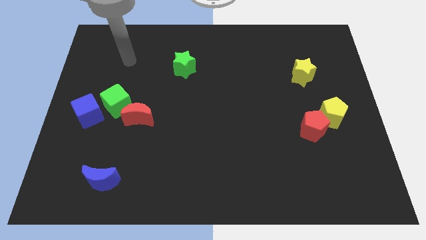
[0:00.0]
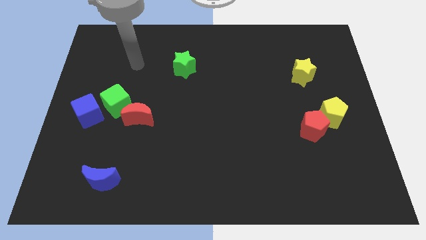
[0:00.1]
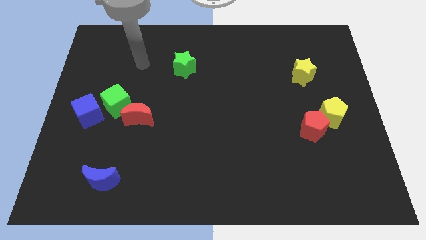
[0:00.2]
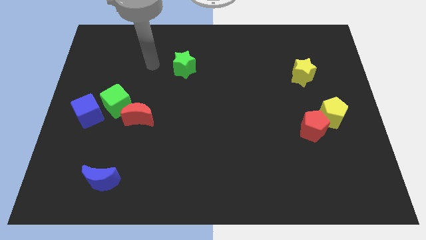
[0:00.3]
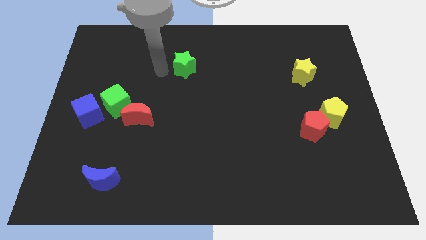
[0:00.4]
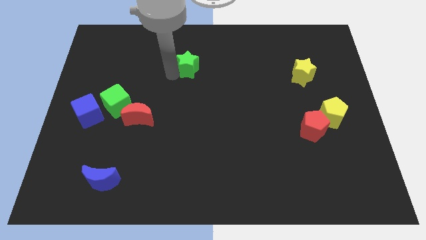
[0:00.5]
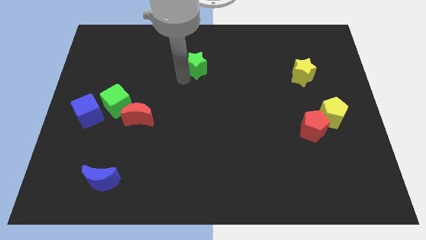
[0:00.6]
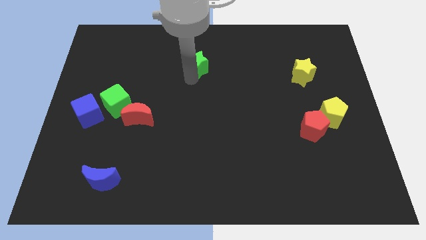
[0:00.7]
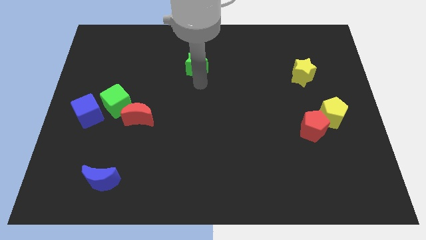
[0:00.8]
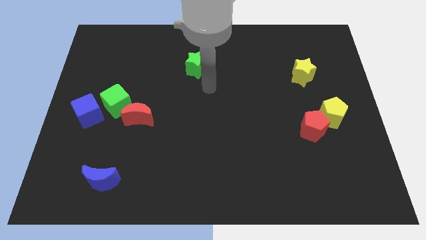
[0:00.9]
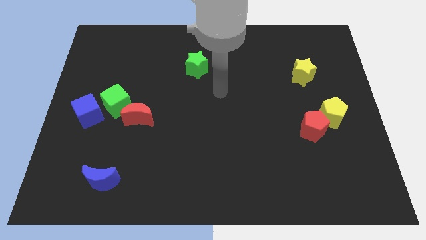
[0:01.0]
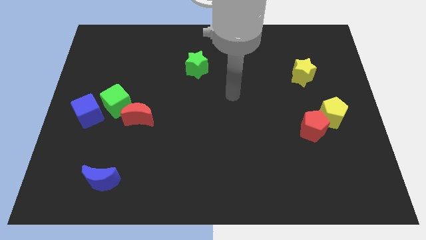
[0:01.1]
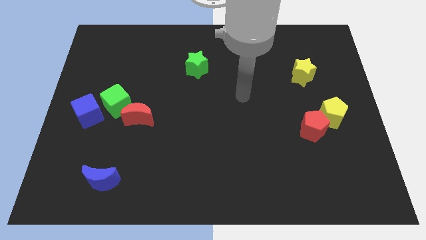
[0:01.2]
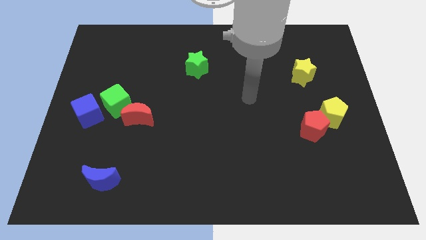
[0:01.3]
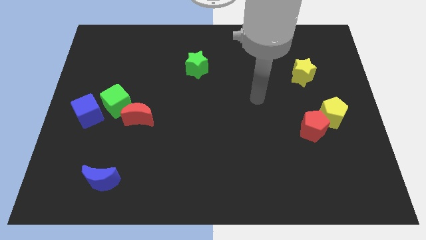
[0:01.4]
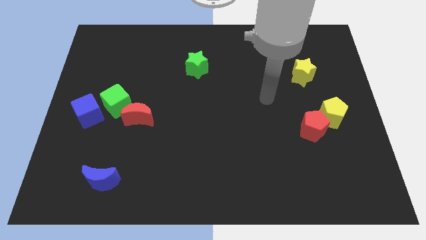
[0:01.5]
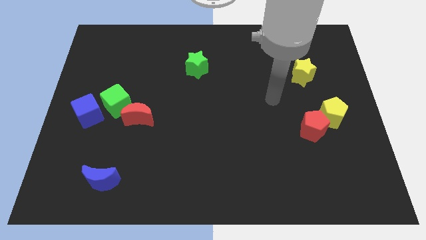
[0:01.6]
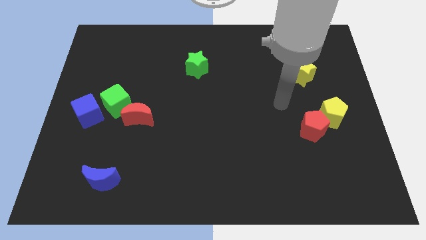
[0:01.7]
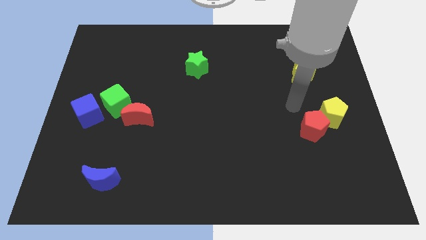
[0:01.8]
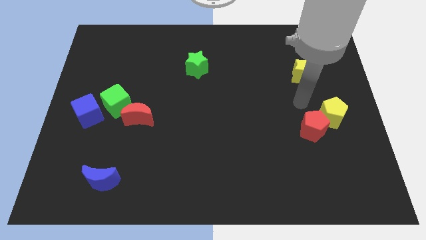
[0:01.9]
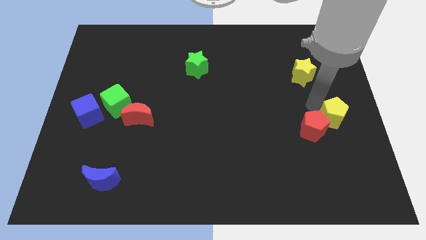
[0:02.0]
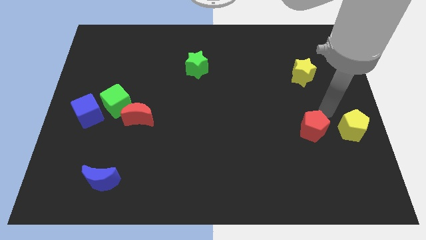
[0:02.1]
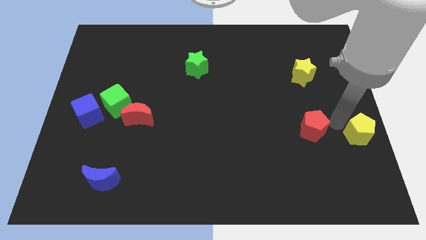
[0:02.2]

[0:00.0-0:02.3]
pull the red pentagon apart from the yellow pentagon

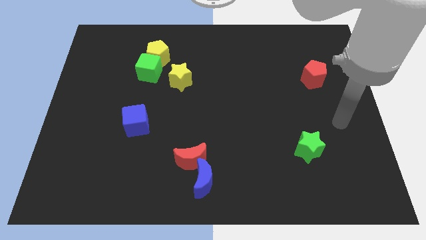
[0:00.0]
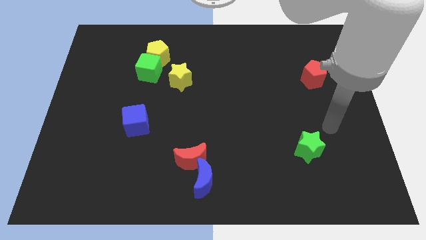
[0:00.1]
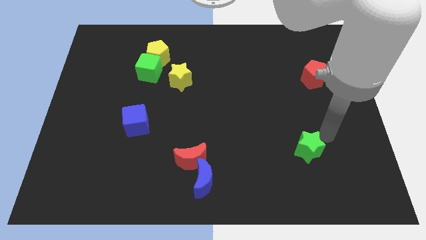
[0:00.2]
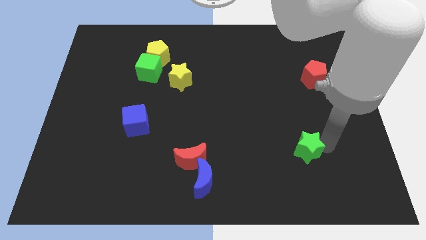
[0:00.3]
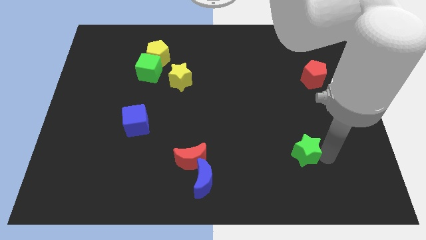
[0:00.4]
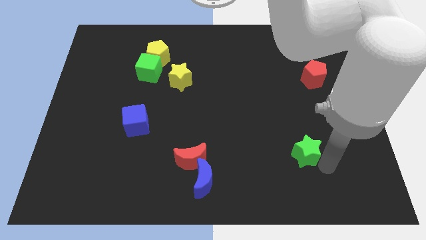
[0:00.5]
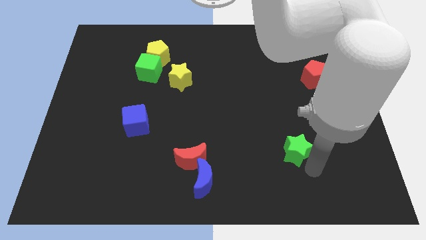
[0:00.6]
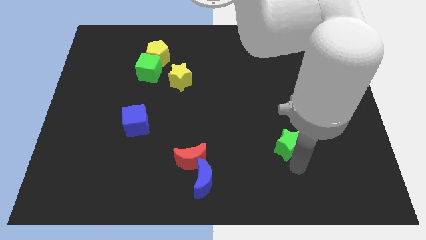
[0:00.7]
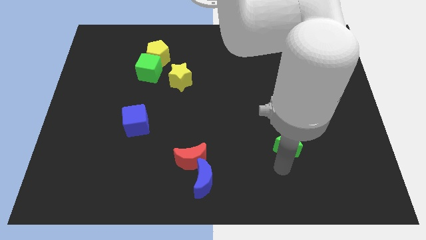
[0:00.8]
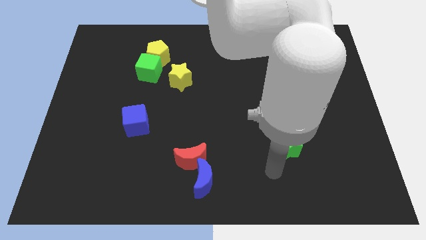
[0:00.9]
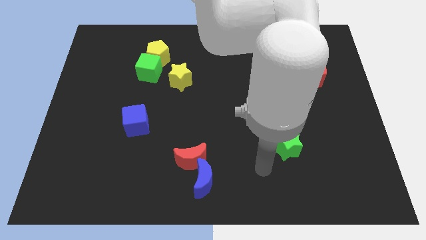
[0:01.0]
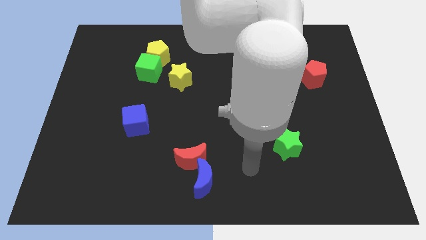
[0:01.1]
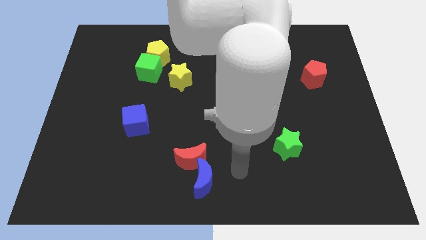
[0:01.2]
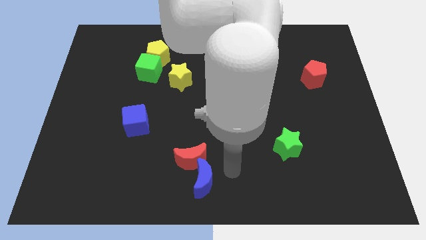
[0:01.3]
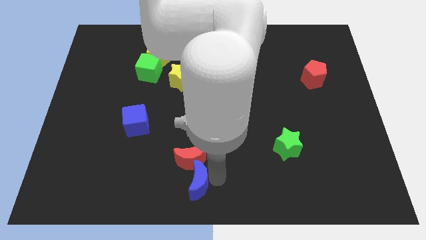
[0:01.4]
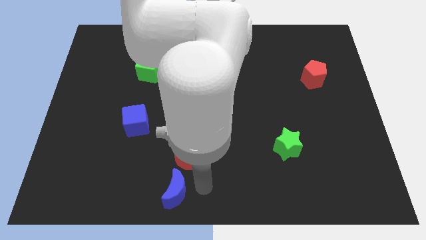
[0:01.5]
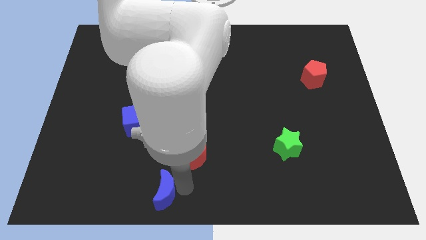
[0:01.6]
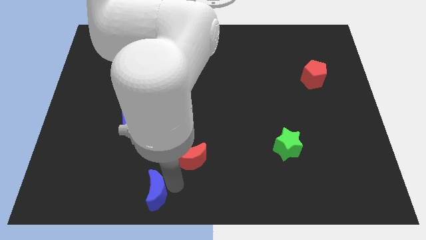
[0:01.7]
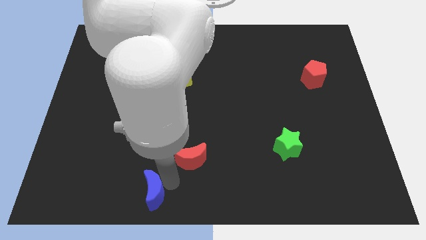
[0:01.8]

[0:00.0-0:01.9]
pull the red moon apart from the blue moon

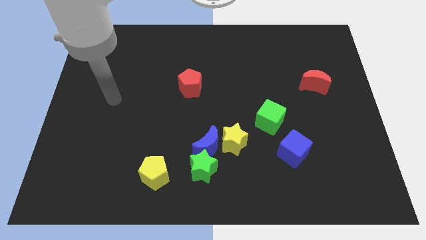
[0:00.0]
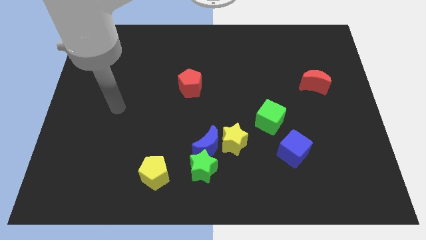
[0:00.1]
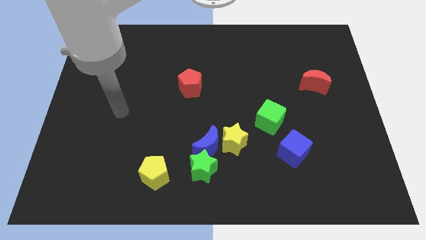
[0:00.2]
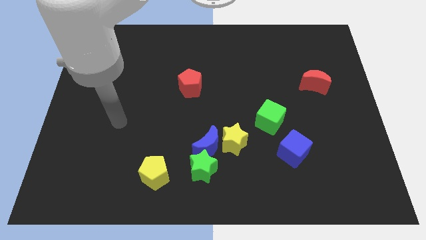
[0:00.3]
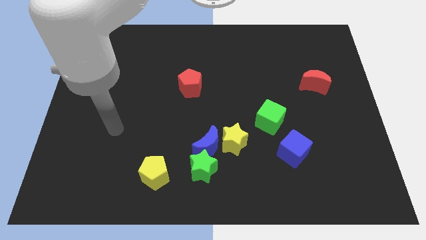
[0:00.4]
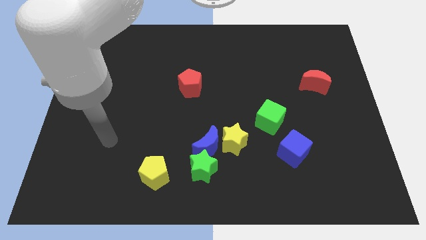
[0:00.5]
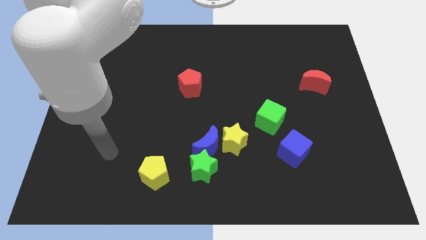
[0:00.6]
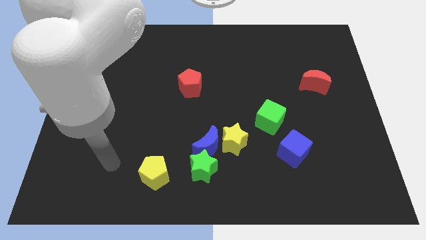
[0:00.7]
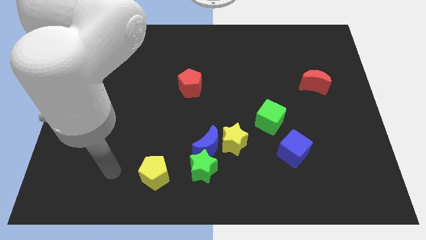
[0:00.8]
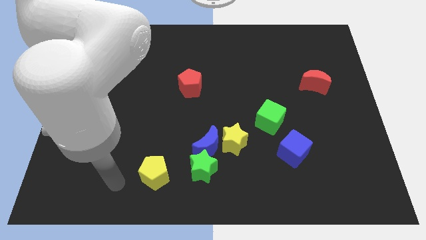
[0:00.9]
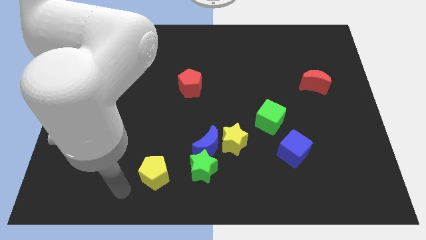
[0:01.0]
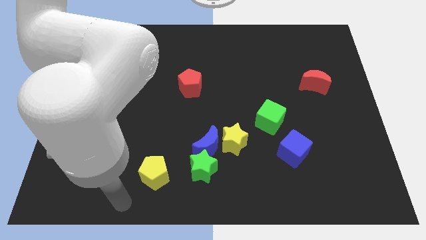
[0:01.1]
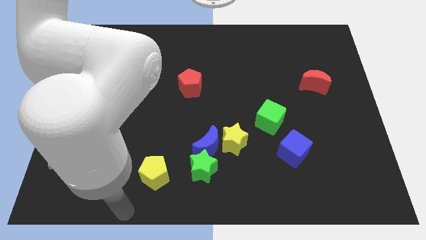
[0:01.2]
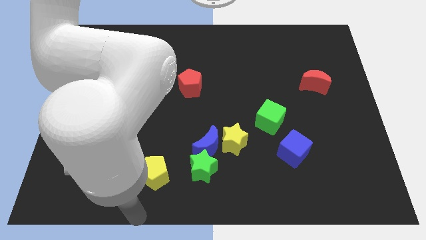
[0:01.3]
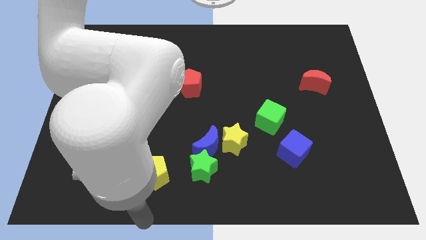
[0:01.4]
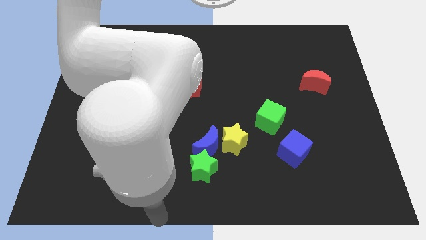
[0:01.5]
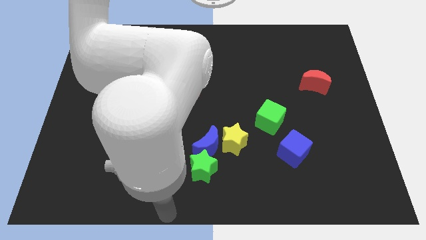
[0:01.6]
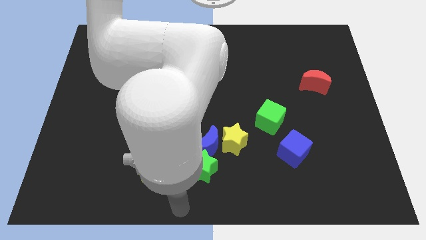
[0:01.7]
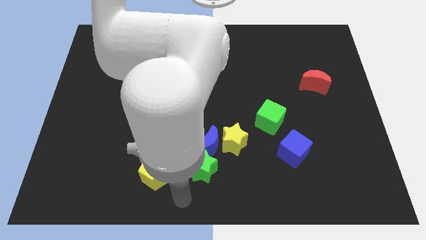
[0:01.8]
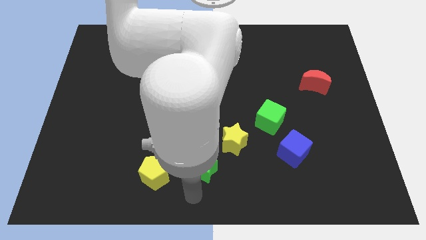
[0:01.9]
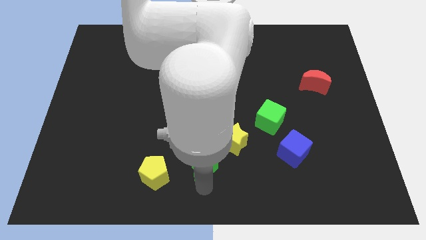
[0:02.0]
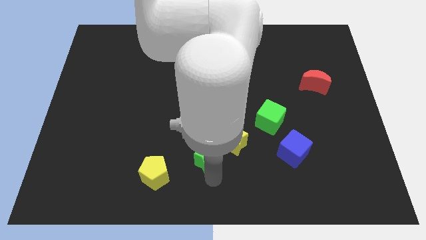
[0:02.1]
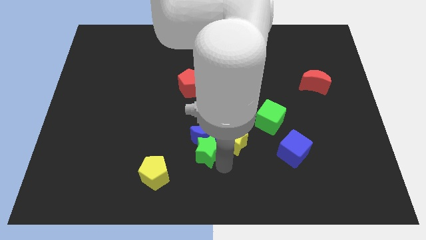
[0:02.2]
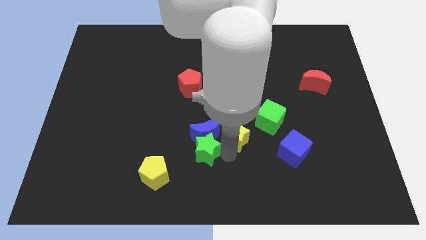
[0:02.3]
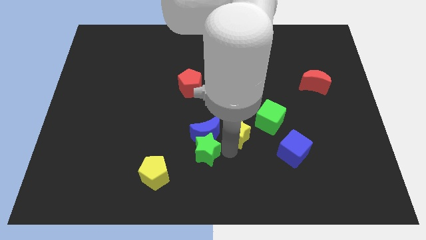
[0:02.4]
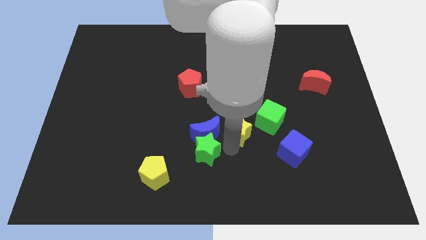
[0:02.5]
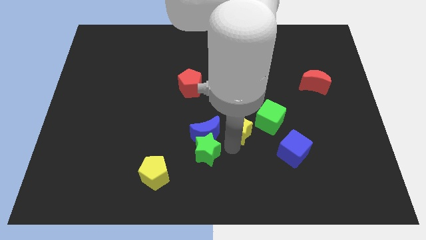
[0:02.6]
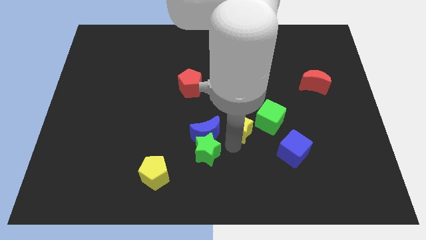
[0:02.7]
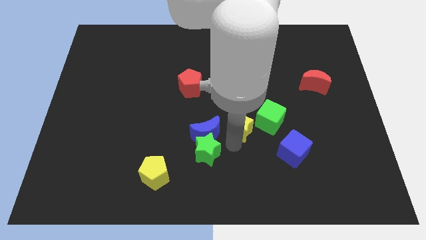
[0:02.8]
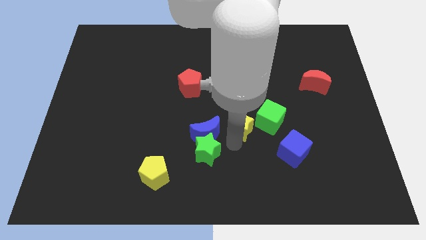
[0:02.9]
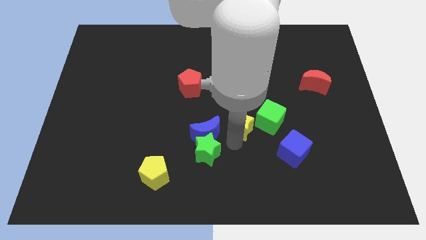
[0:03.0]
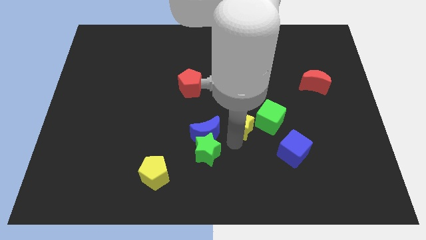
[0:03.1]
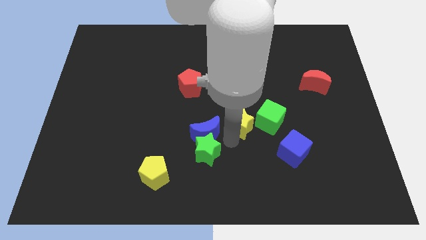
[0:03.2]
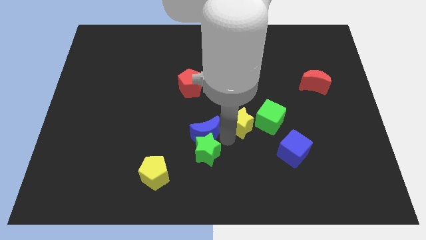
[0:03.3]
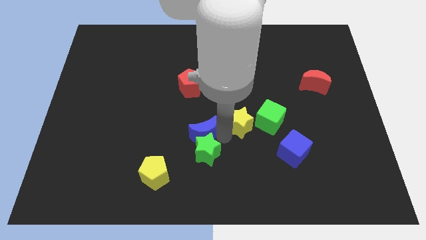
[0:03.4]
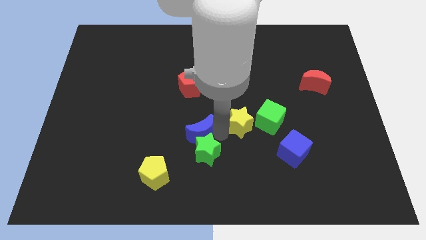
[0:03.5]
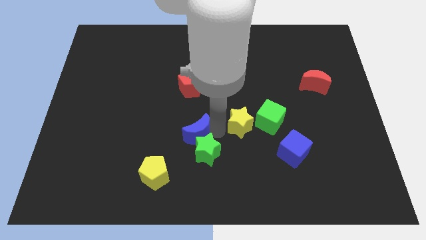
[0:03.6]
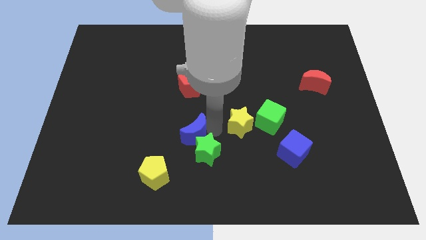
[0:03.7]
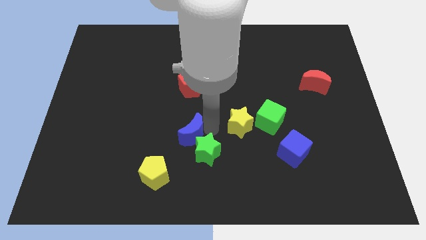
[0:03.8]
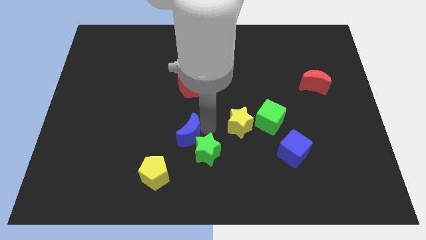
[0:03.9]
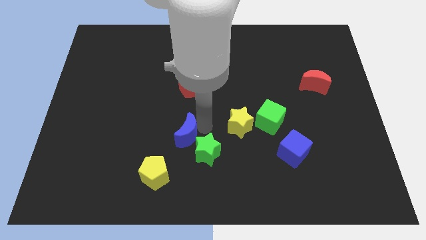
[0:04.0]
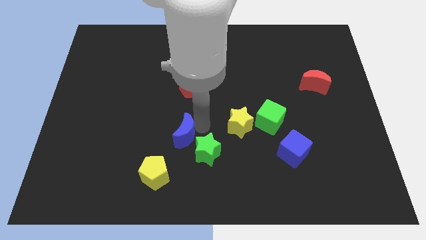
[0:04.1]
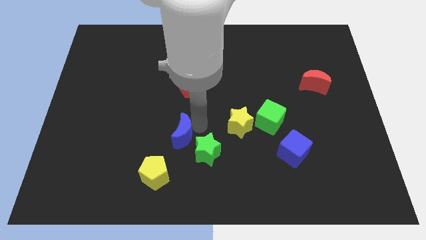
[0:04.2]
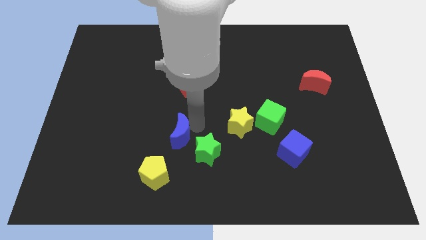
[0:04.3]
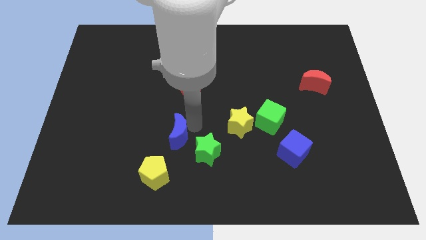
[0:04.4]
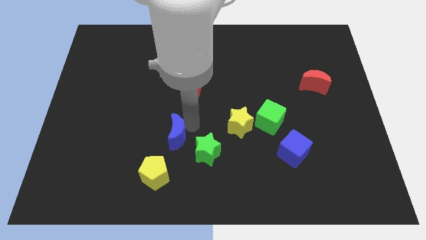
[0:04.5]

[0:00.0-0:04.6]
move the blue moon away from the yellow star and green star

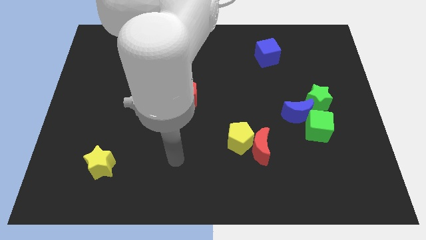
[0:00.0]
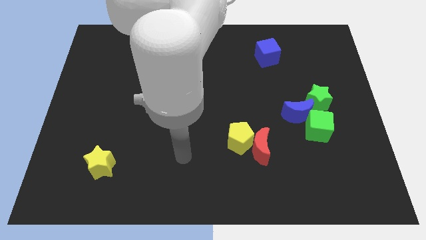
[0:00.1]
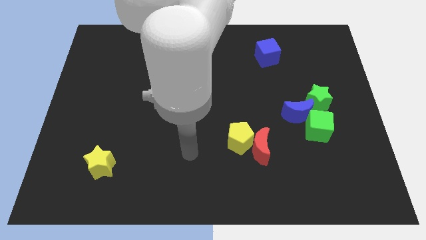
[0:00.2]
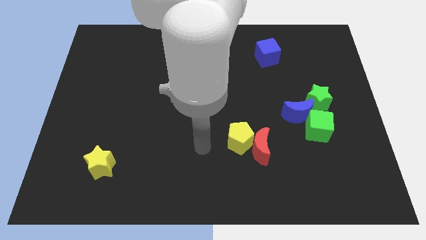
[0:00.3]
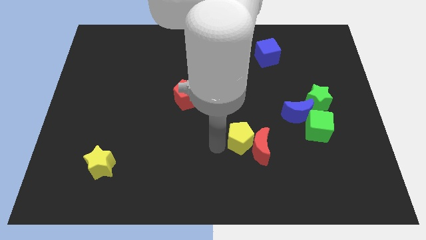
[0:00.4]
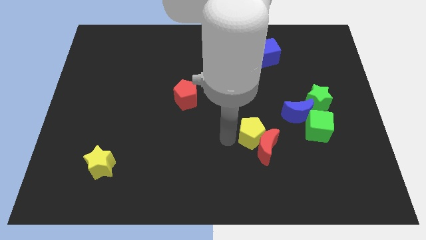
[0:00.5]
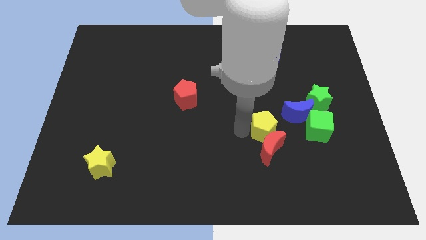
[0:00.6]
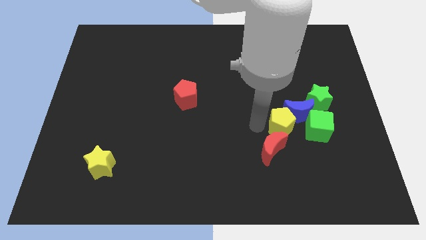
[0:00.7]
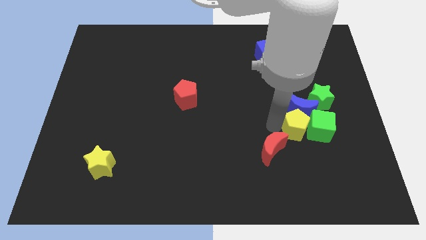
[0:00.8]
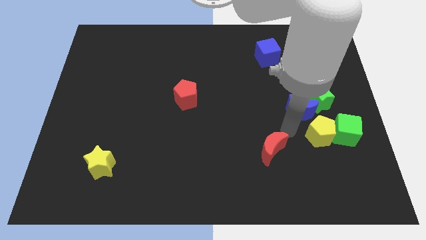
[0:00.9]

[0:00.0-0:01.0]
pull the red moon apart from the yellow pentagon
